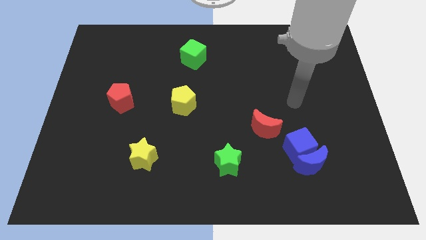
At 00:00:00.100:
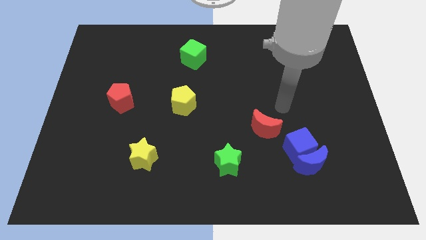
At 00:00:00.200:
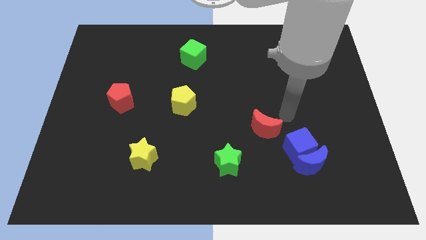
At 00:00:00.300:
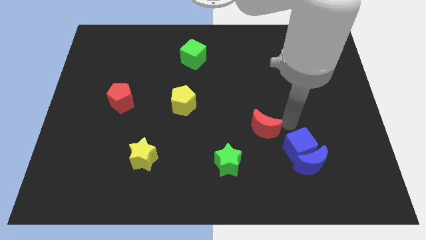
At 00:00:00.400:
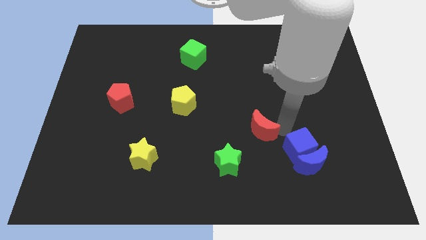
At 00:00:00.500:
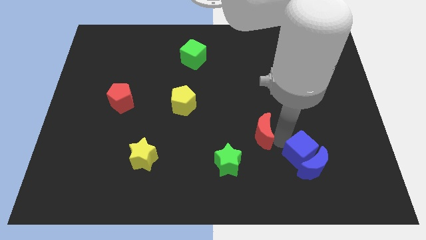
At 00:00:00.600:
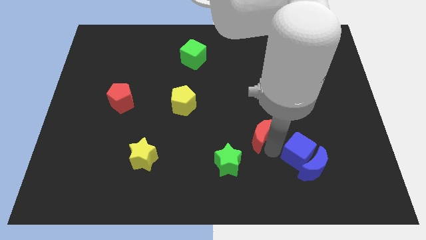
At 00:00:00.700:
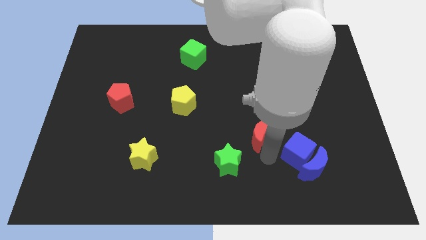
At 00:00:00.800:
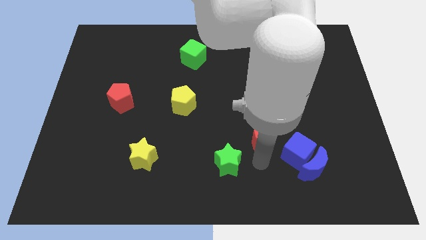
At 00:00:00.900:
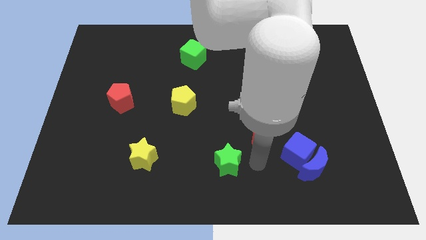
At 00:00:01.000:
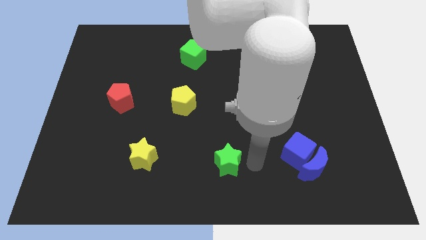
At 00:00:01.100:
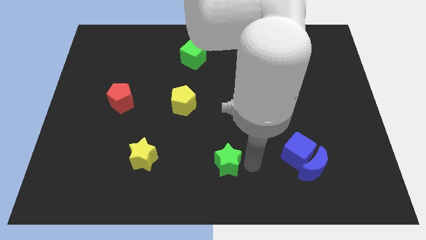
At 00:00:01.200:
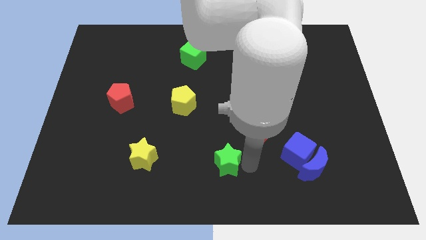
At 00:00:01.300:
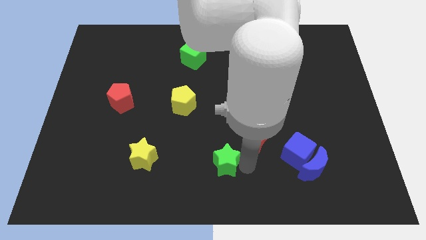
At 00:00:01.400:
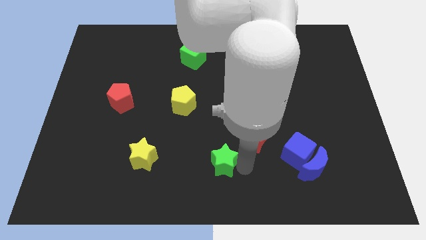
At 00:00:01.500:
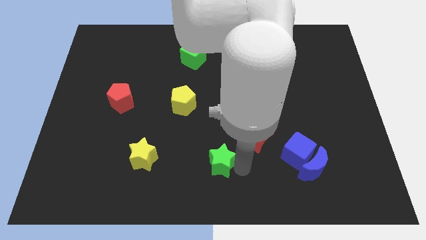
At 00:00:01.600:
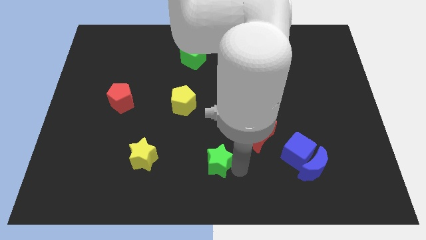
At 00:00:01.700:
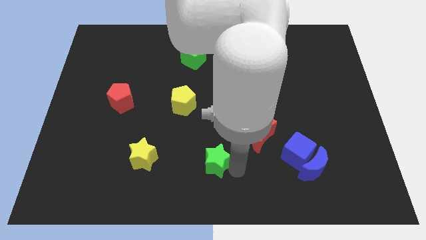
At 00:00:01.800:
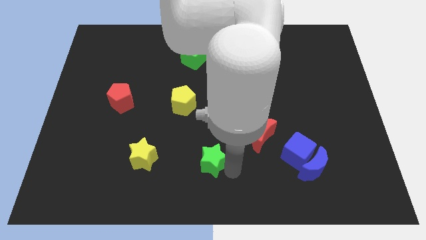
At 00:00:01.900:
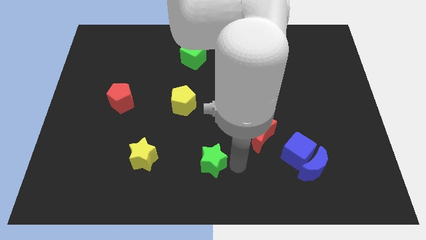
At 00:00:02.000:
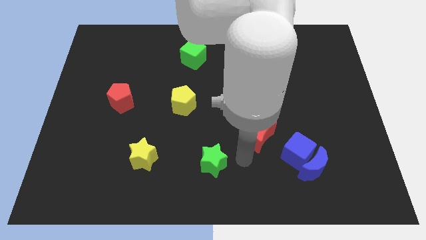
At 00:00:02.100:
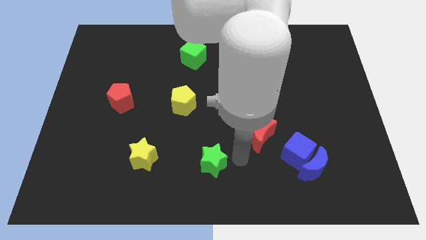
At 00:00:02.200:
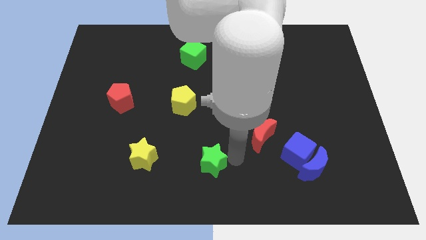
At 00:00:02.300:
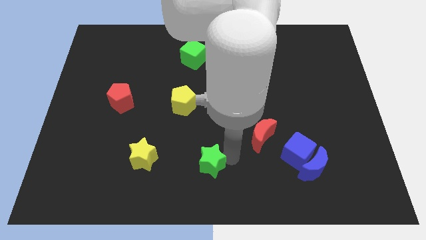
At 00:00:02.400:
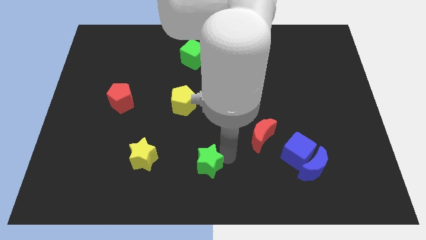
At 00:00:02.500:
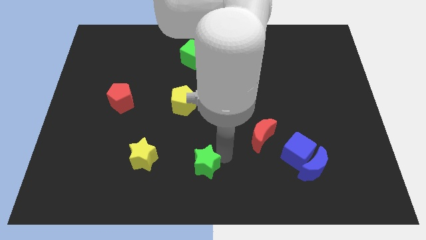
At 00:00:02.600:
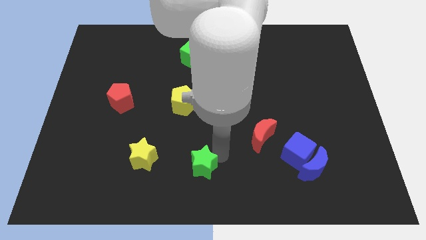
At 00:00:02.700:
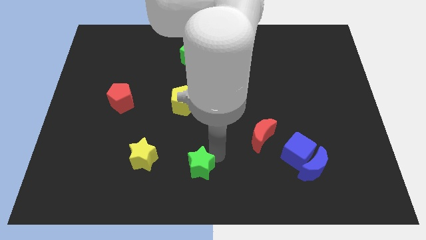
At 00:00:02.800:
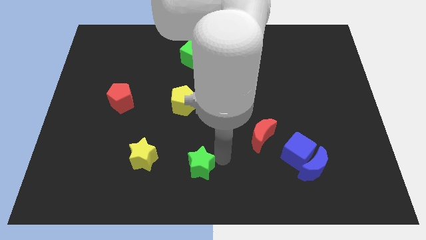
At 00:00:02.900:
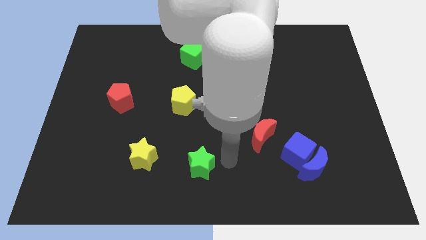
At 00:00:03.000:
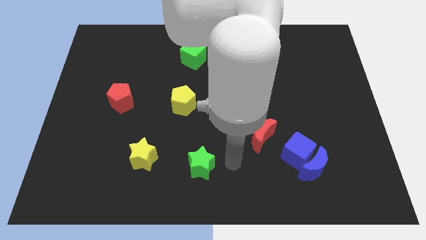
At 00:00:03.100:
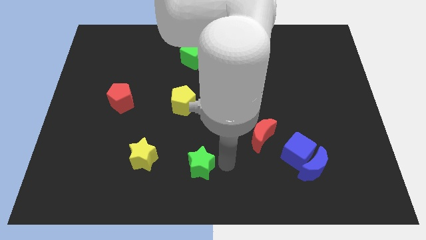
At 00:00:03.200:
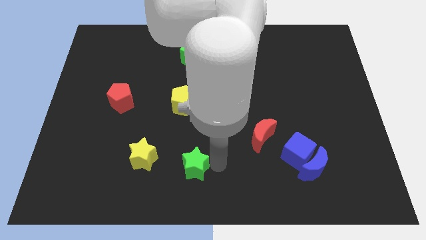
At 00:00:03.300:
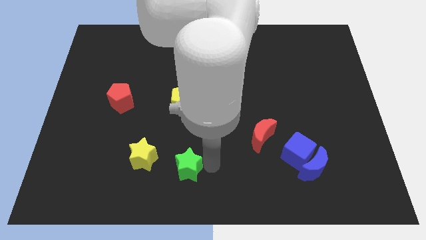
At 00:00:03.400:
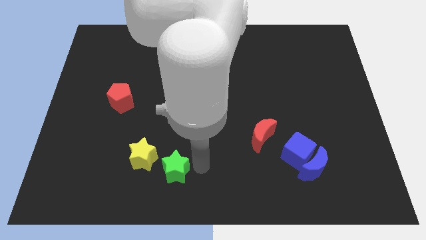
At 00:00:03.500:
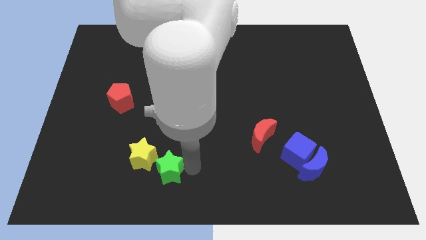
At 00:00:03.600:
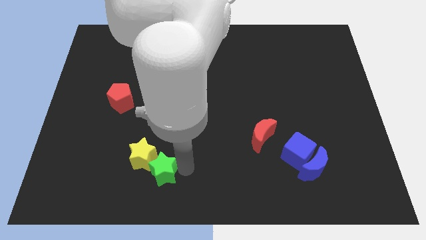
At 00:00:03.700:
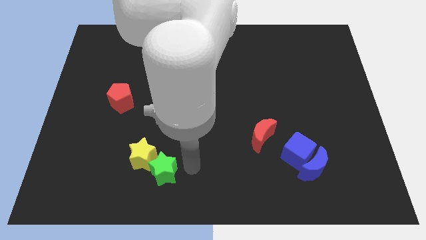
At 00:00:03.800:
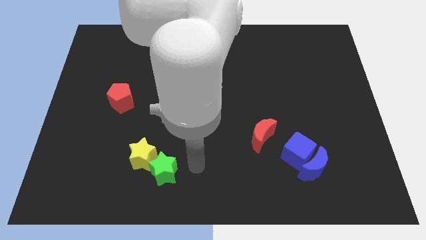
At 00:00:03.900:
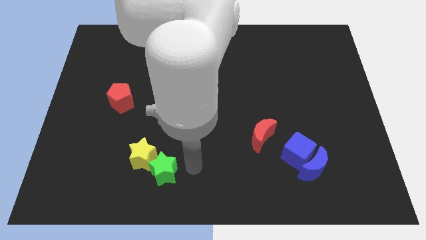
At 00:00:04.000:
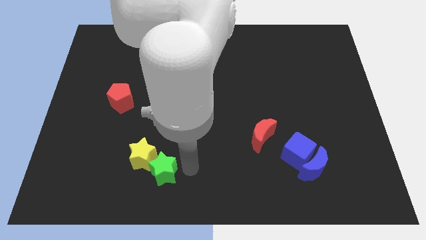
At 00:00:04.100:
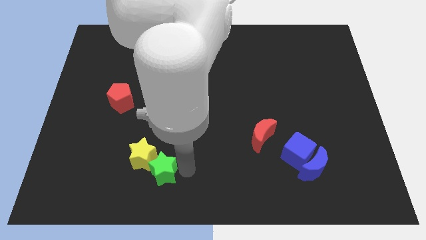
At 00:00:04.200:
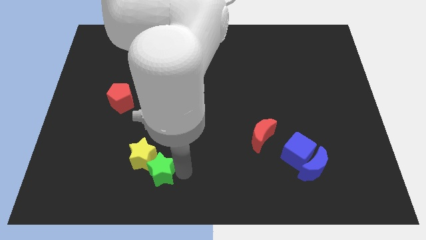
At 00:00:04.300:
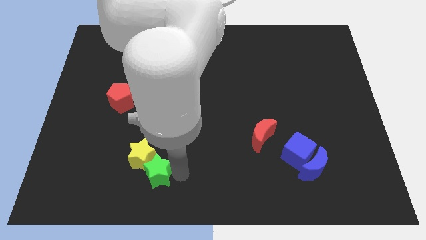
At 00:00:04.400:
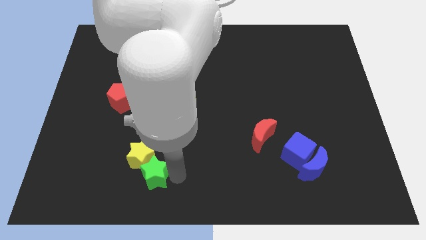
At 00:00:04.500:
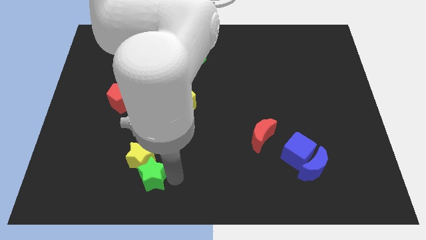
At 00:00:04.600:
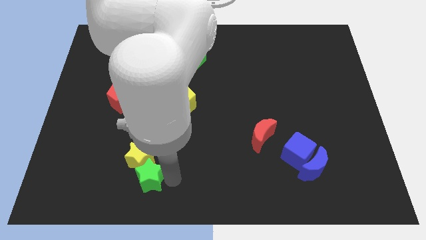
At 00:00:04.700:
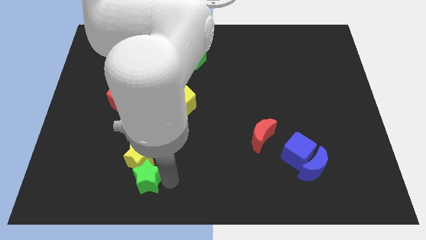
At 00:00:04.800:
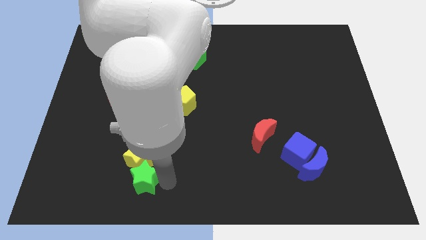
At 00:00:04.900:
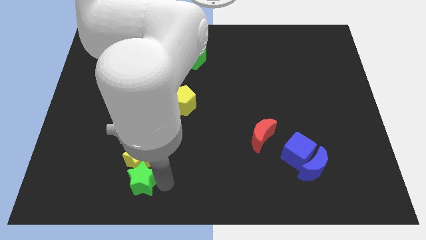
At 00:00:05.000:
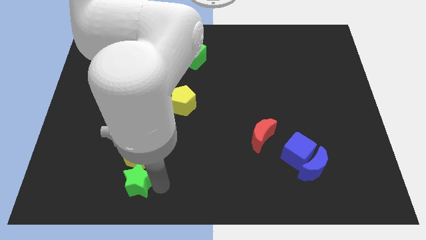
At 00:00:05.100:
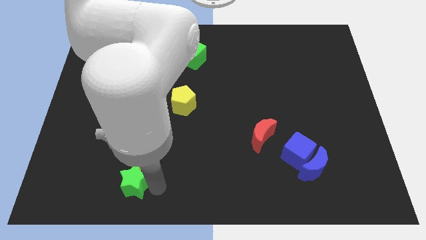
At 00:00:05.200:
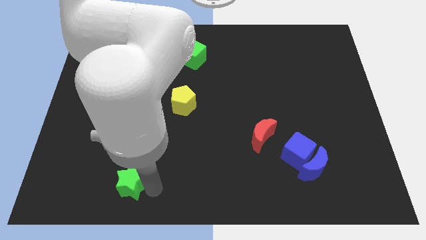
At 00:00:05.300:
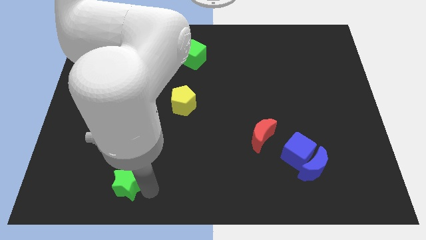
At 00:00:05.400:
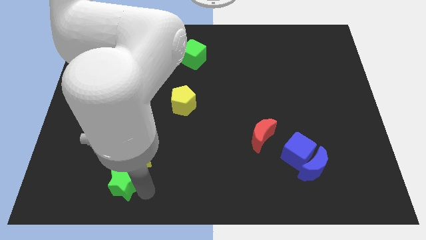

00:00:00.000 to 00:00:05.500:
move the green star left

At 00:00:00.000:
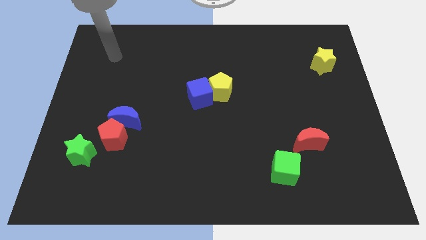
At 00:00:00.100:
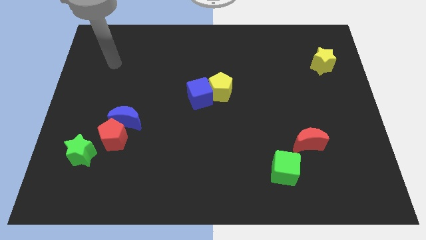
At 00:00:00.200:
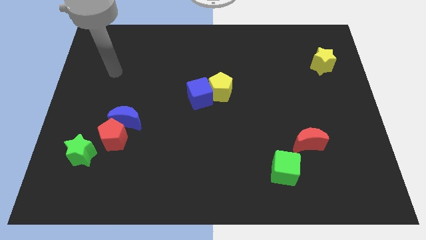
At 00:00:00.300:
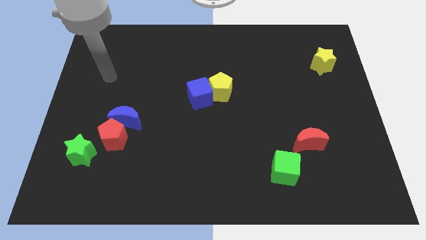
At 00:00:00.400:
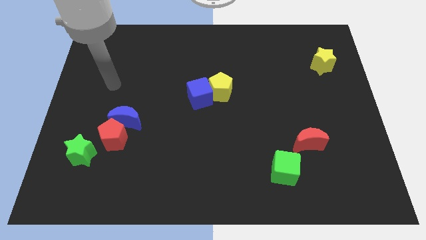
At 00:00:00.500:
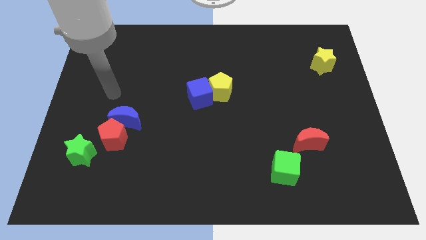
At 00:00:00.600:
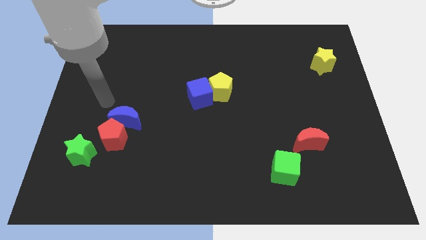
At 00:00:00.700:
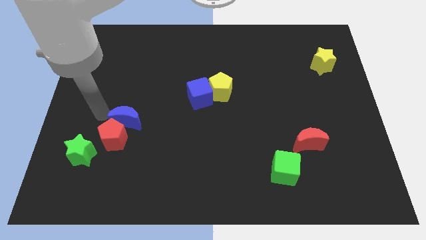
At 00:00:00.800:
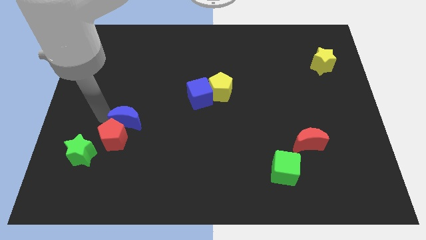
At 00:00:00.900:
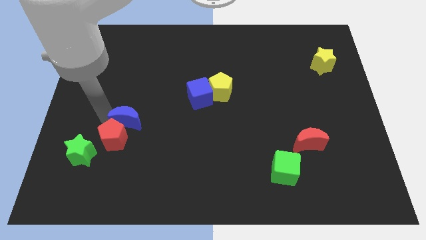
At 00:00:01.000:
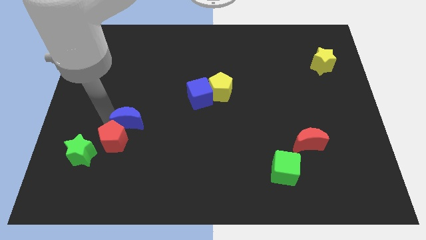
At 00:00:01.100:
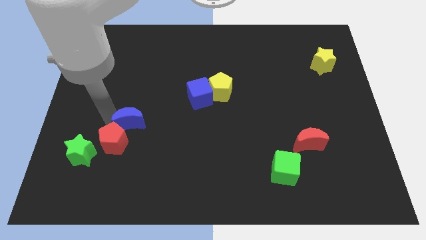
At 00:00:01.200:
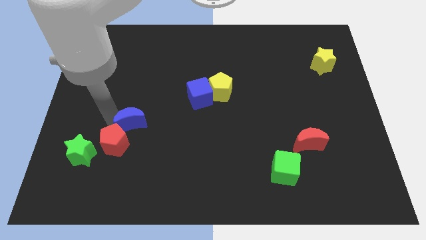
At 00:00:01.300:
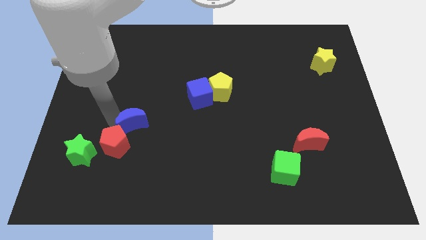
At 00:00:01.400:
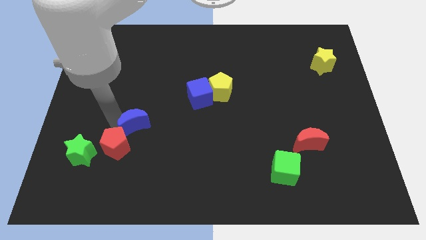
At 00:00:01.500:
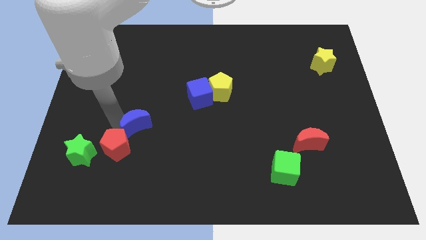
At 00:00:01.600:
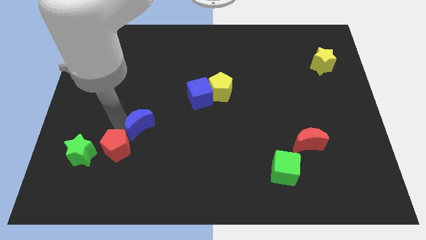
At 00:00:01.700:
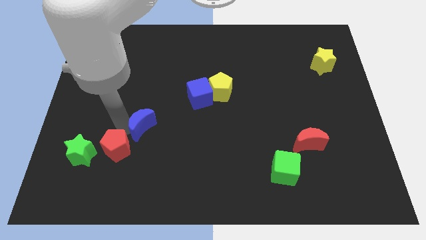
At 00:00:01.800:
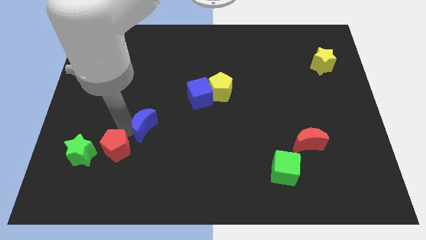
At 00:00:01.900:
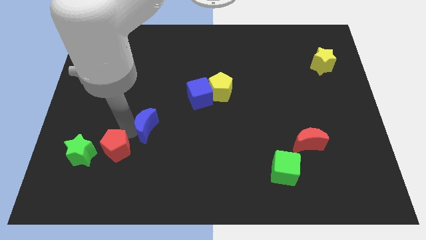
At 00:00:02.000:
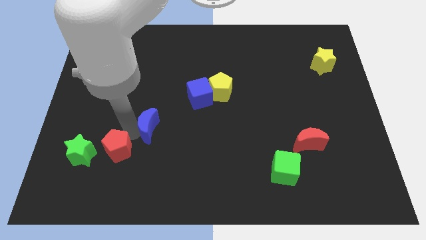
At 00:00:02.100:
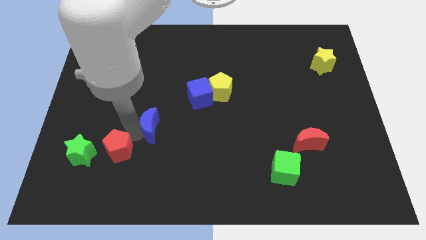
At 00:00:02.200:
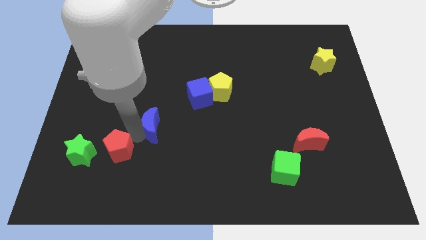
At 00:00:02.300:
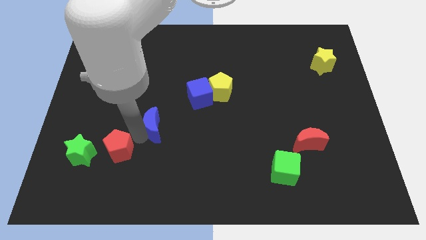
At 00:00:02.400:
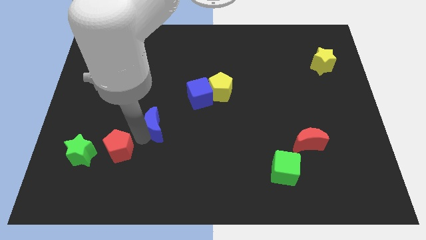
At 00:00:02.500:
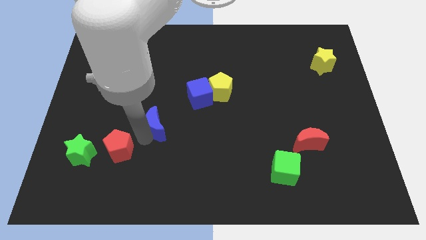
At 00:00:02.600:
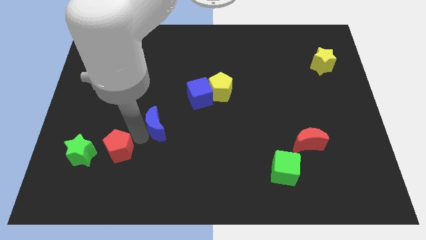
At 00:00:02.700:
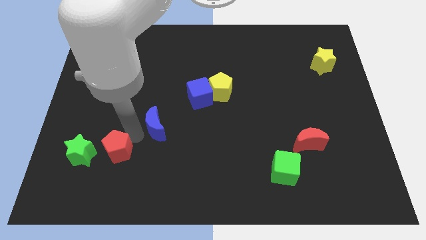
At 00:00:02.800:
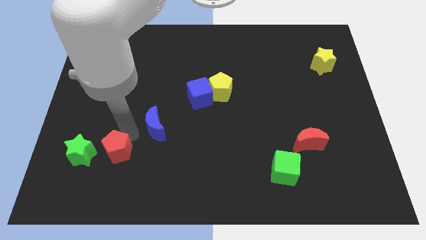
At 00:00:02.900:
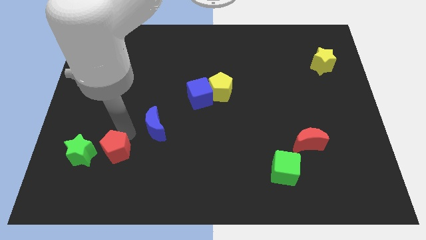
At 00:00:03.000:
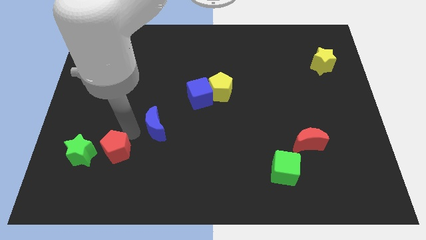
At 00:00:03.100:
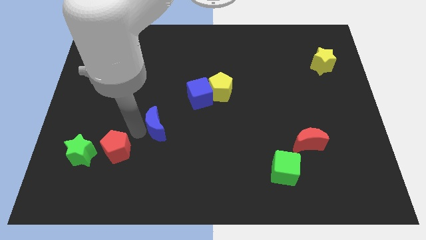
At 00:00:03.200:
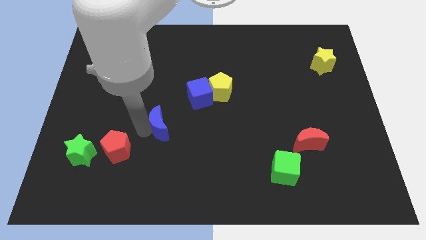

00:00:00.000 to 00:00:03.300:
slide the blue moon somewhat to the right
